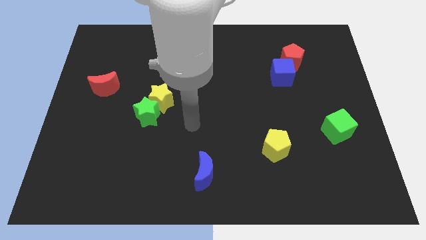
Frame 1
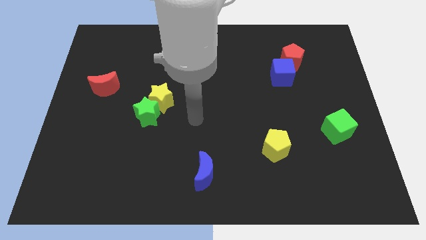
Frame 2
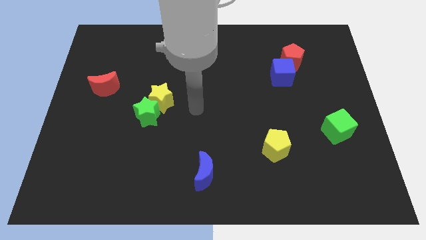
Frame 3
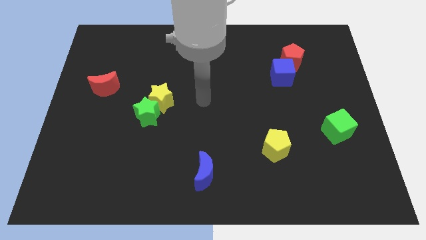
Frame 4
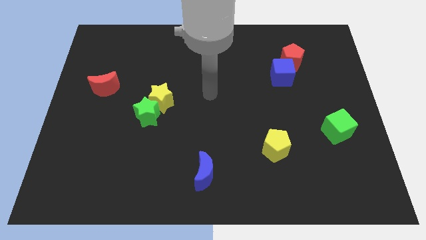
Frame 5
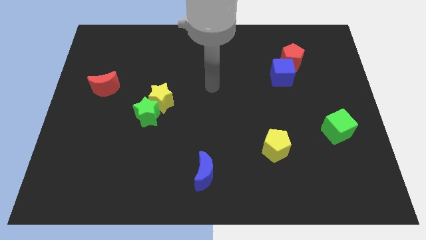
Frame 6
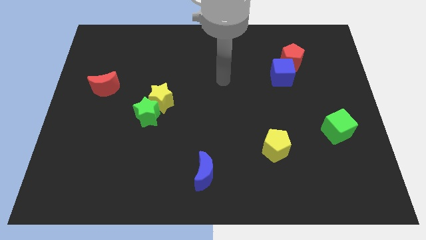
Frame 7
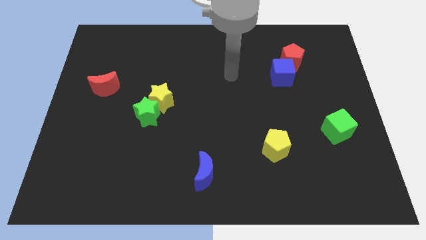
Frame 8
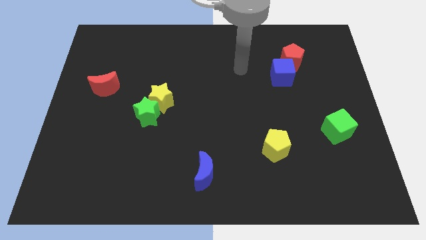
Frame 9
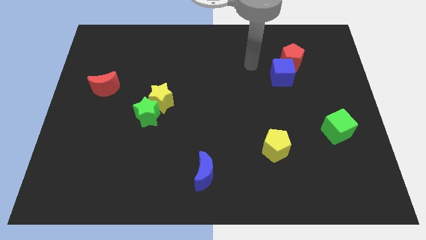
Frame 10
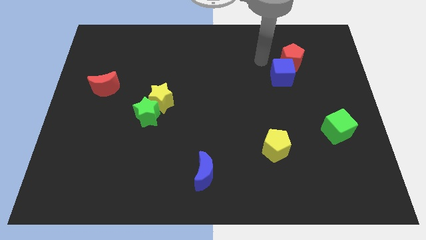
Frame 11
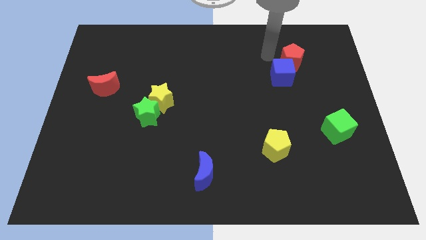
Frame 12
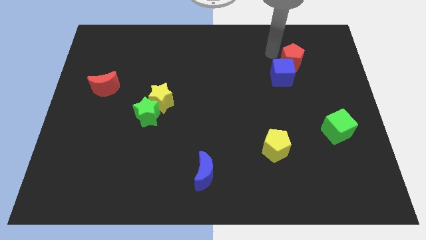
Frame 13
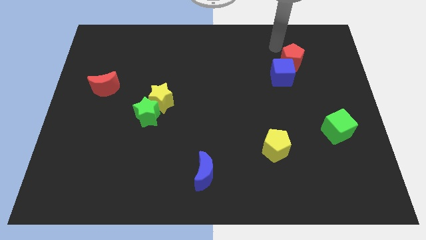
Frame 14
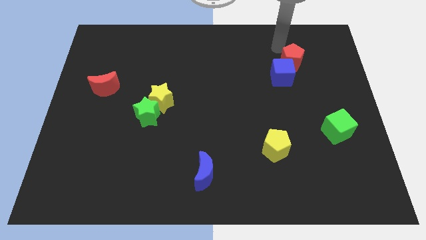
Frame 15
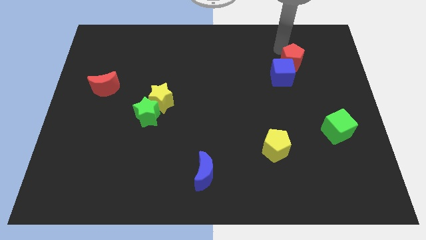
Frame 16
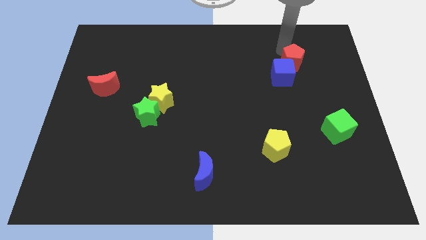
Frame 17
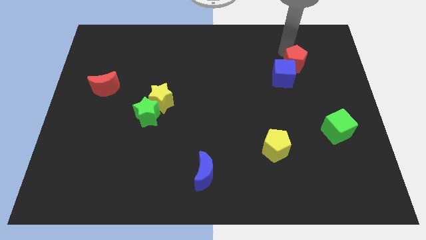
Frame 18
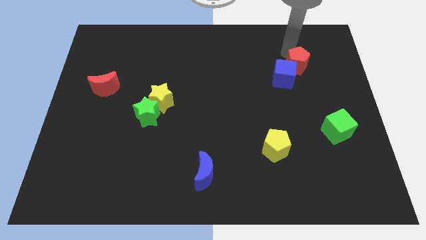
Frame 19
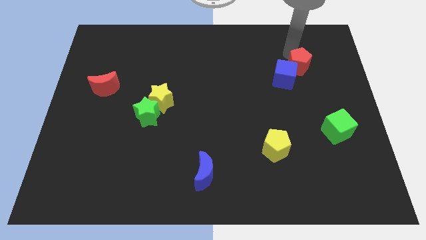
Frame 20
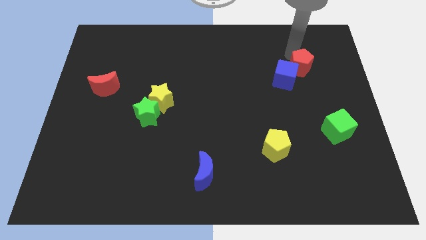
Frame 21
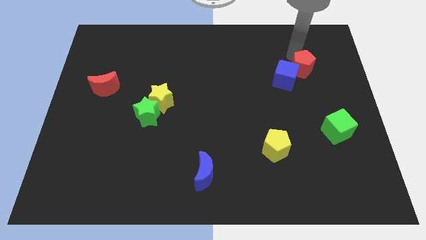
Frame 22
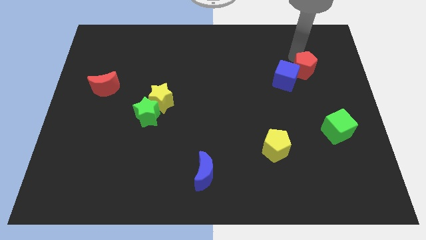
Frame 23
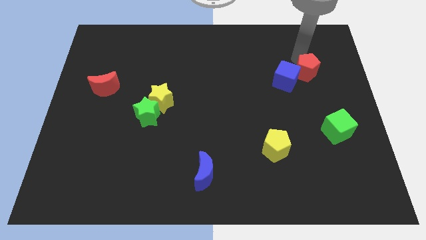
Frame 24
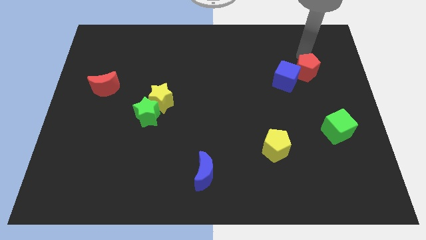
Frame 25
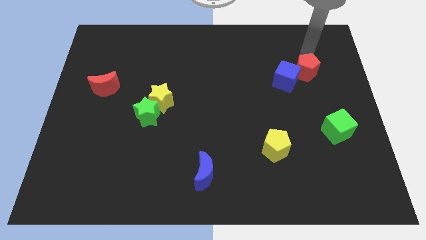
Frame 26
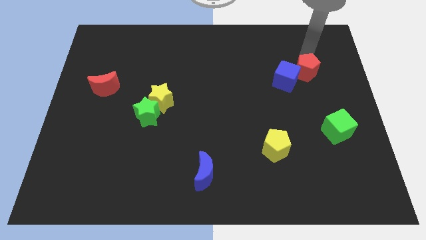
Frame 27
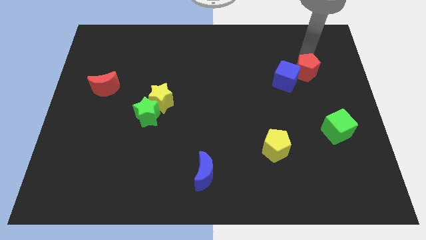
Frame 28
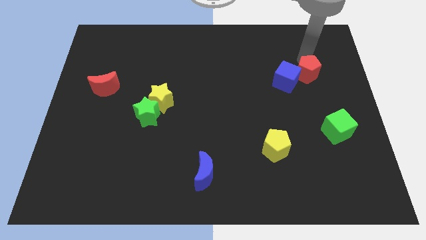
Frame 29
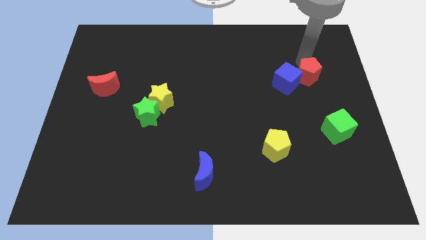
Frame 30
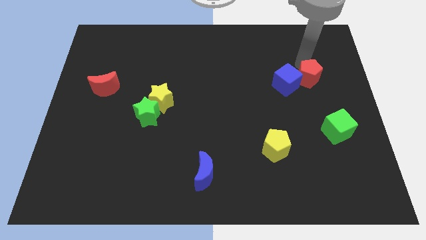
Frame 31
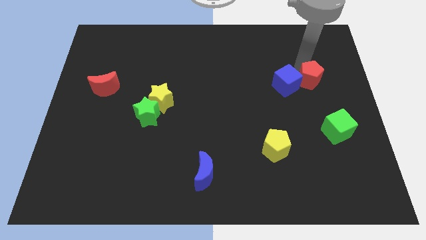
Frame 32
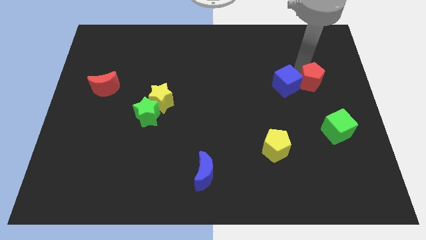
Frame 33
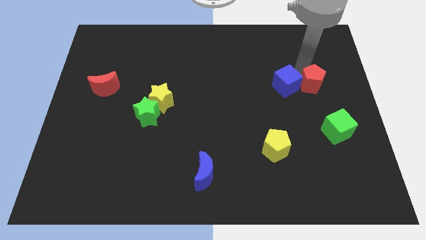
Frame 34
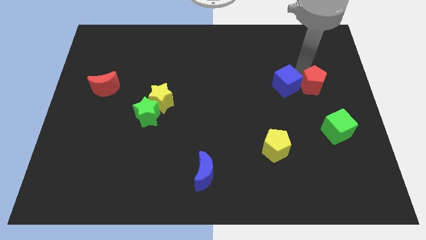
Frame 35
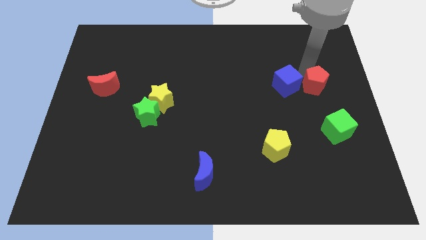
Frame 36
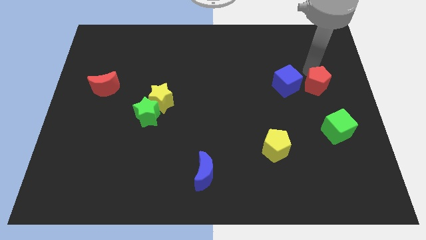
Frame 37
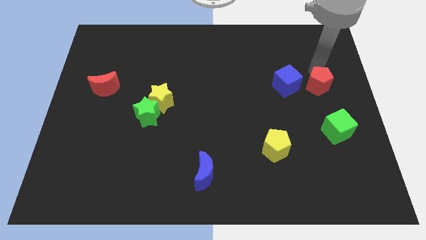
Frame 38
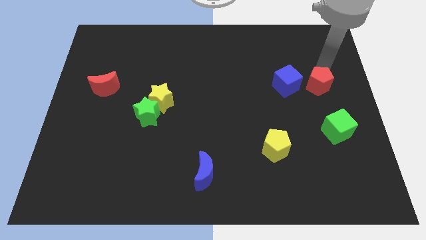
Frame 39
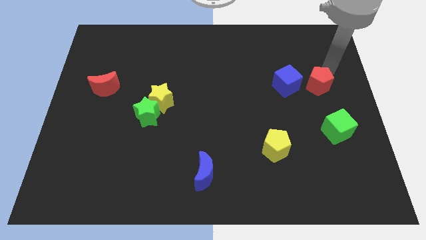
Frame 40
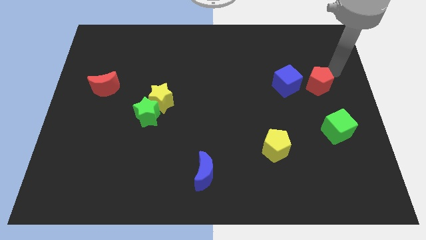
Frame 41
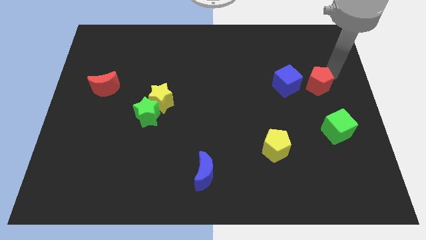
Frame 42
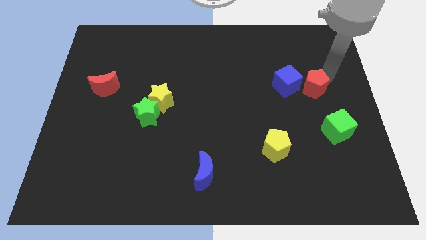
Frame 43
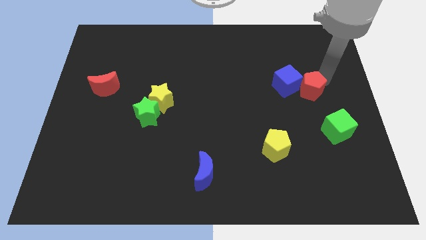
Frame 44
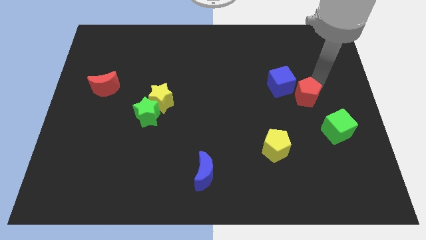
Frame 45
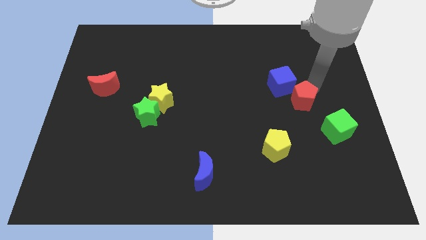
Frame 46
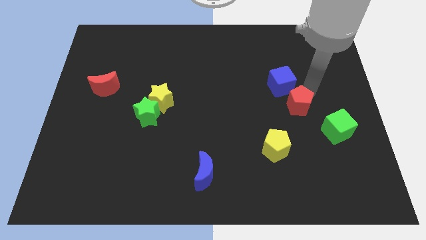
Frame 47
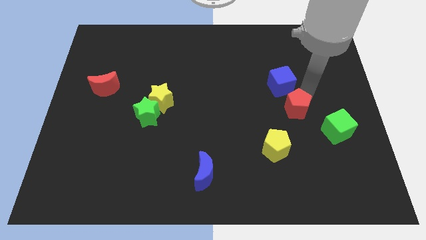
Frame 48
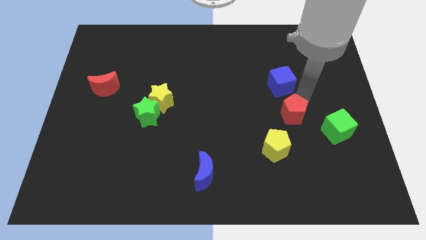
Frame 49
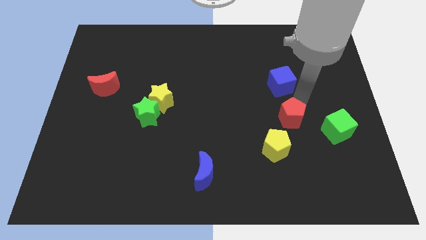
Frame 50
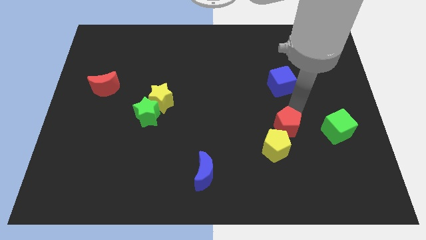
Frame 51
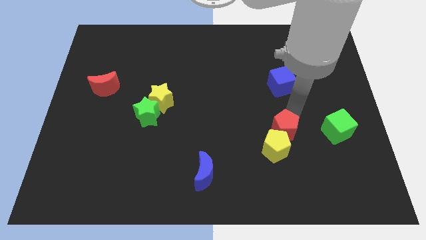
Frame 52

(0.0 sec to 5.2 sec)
put the red pentagon towards the yellow pentagon

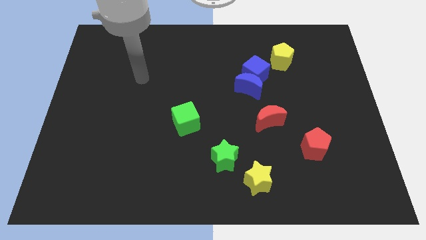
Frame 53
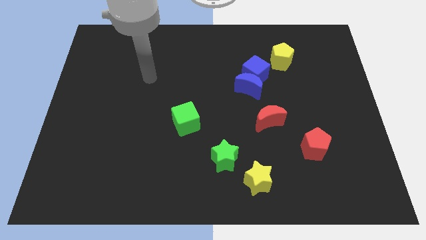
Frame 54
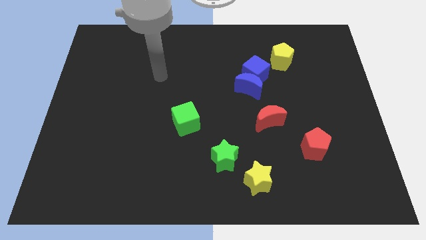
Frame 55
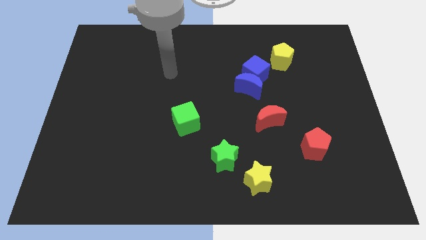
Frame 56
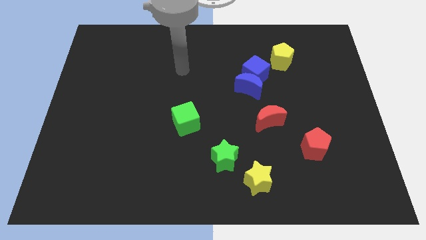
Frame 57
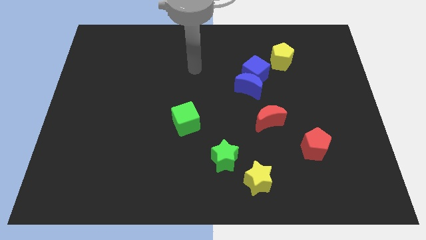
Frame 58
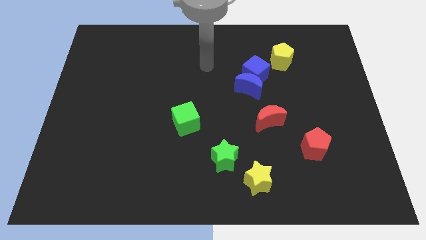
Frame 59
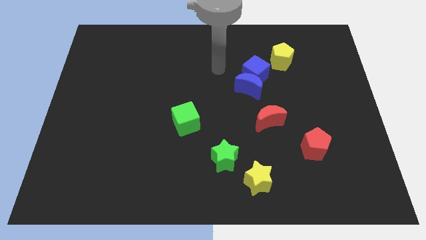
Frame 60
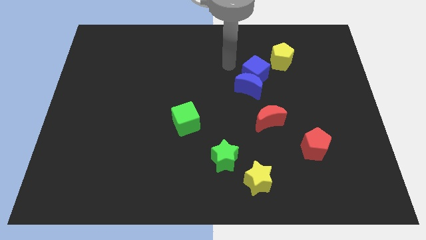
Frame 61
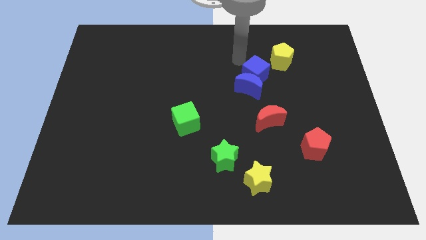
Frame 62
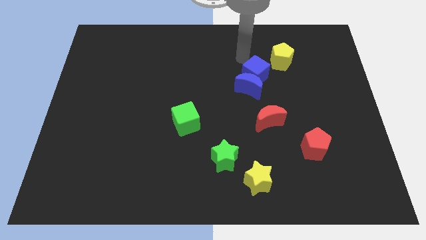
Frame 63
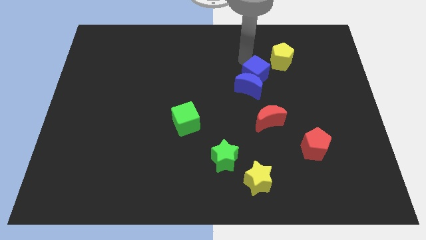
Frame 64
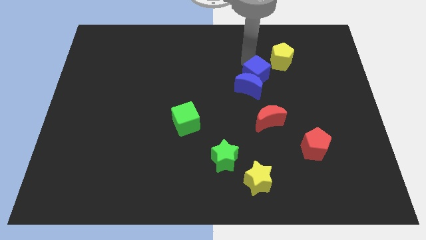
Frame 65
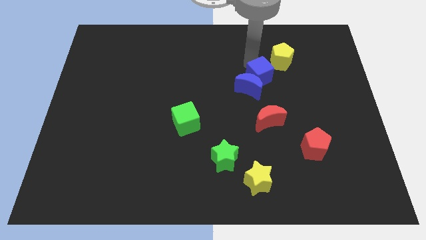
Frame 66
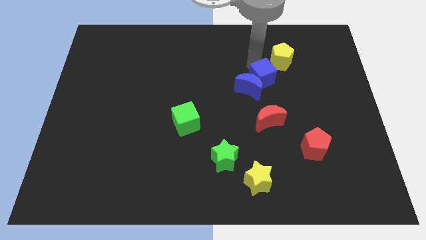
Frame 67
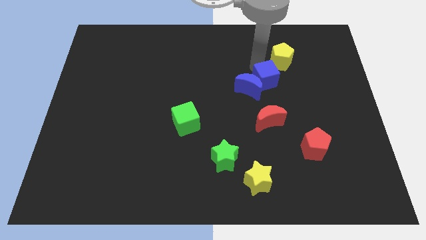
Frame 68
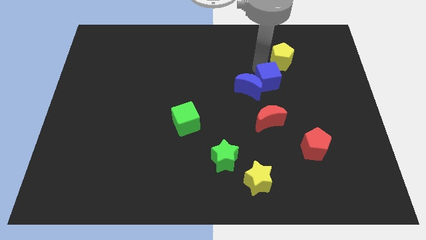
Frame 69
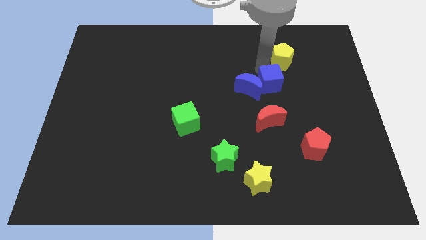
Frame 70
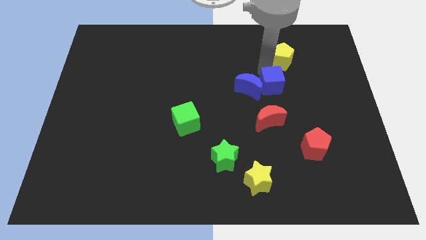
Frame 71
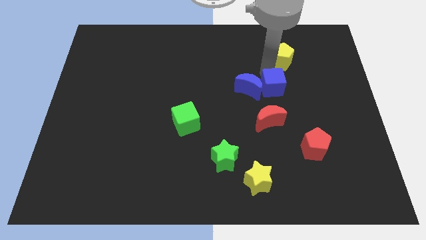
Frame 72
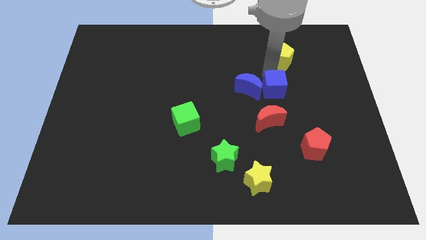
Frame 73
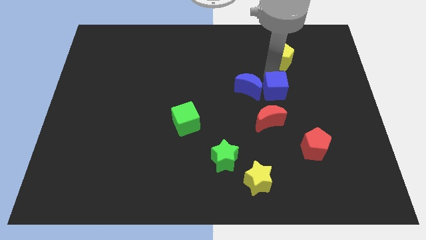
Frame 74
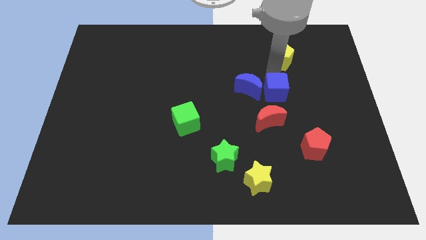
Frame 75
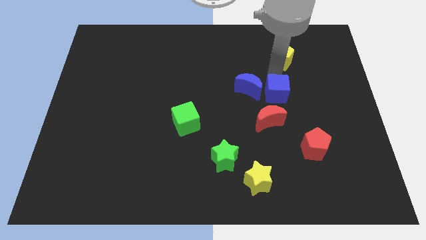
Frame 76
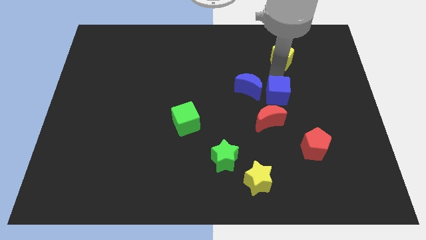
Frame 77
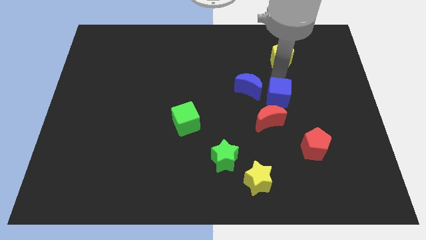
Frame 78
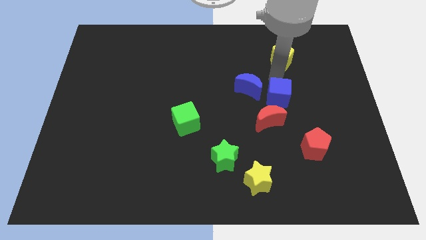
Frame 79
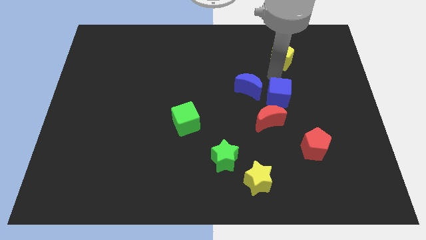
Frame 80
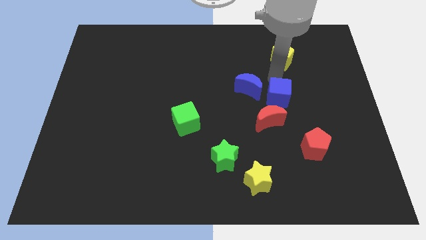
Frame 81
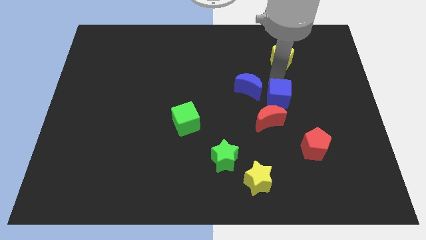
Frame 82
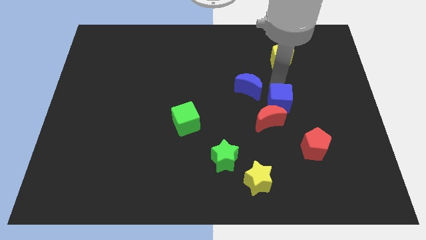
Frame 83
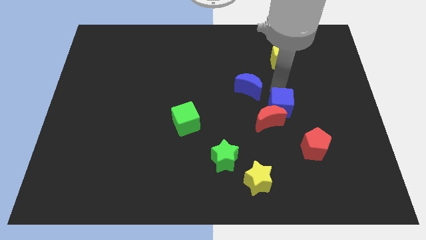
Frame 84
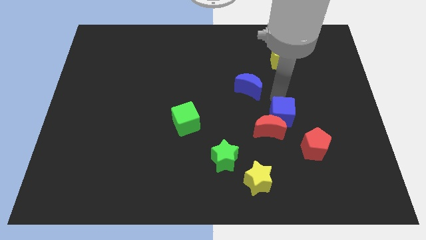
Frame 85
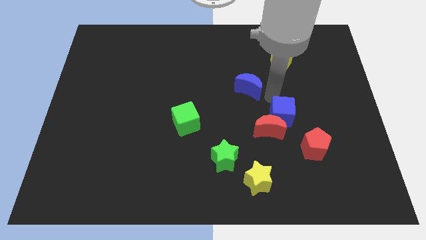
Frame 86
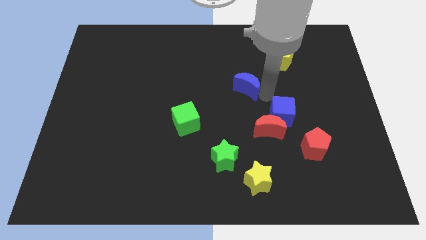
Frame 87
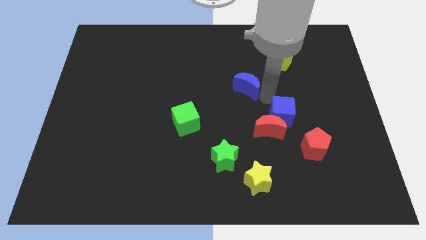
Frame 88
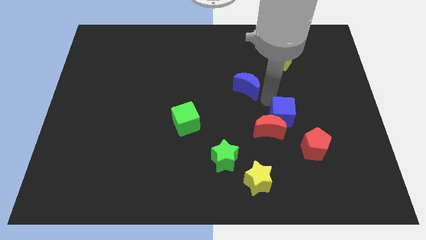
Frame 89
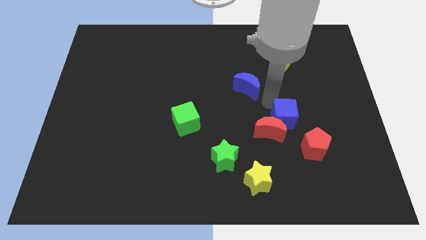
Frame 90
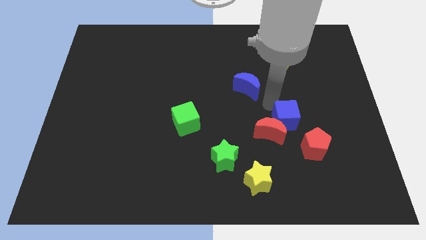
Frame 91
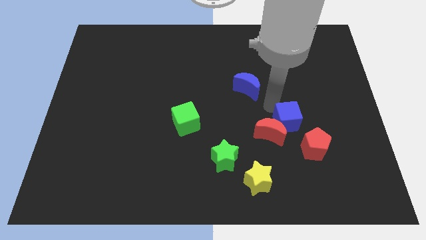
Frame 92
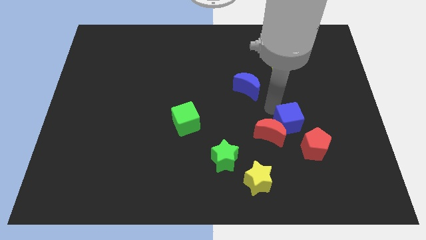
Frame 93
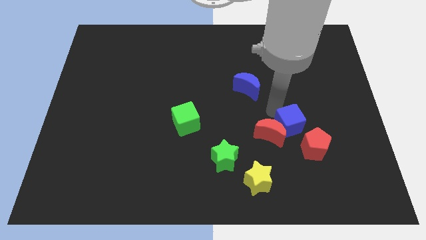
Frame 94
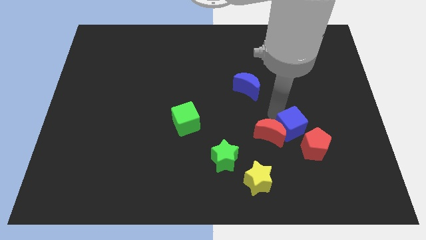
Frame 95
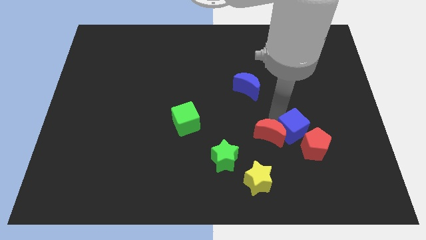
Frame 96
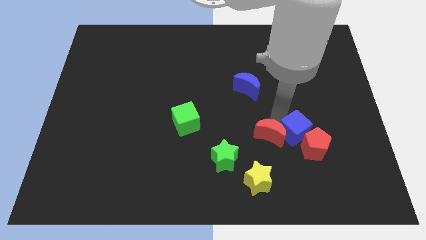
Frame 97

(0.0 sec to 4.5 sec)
push the blue cube towards the red pentagon
